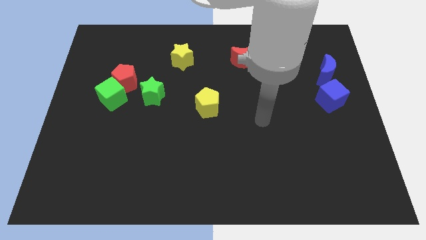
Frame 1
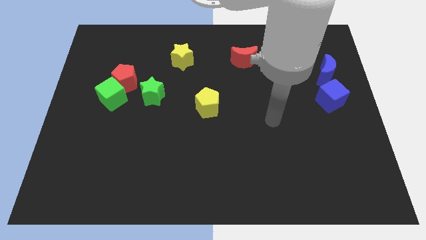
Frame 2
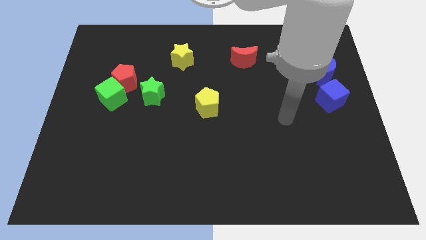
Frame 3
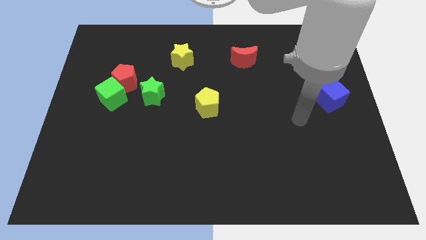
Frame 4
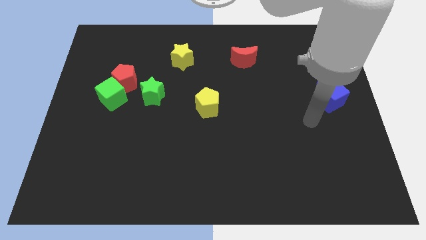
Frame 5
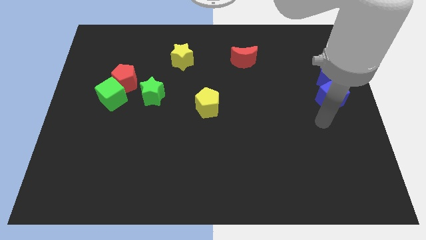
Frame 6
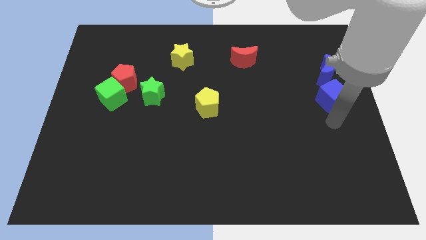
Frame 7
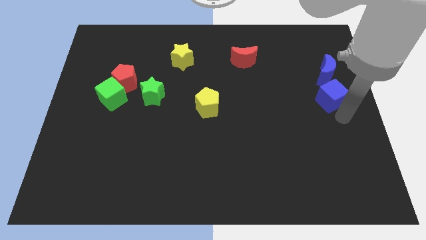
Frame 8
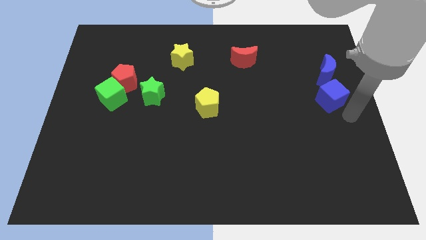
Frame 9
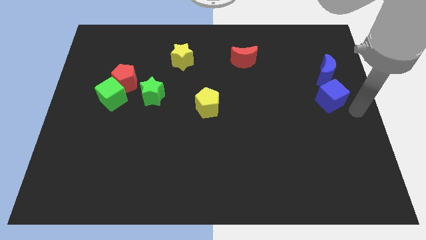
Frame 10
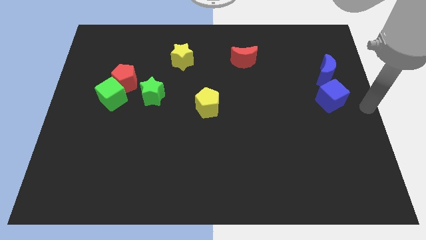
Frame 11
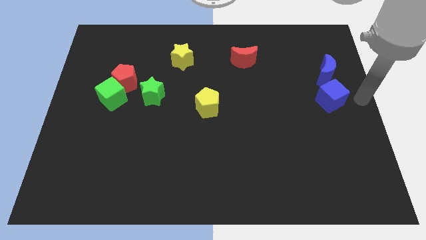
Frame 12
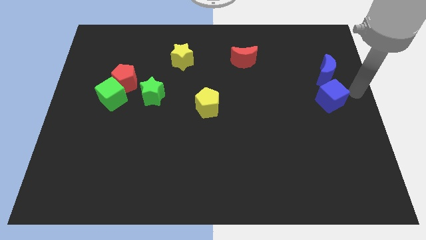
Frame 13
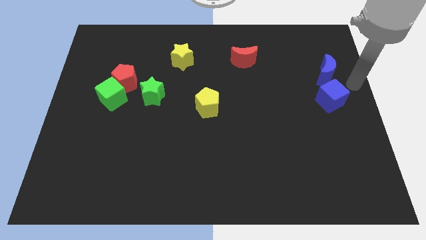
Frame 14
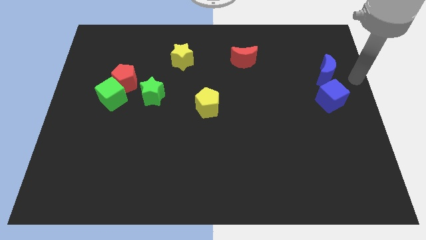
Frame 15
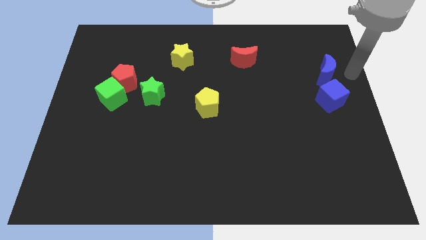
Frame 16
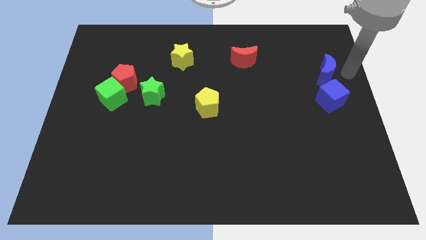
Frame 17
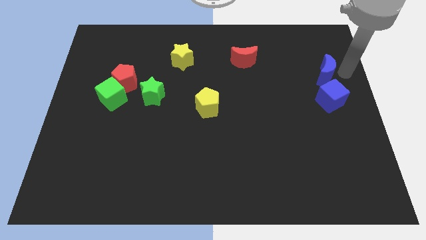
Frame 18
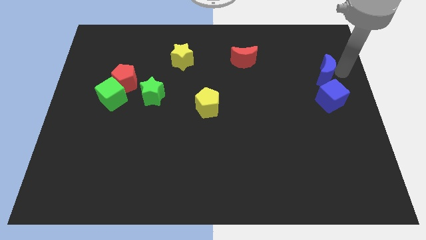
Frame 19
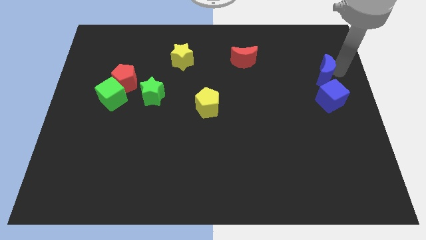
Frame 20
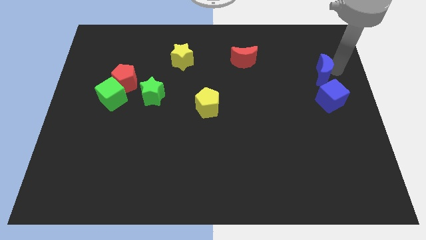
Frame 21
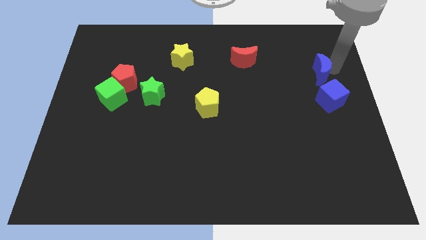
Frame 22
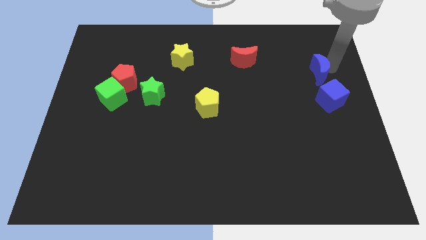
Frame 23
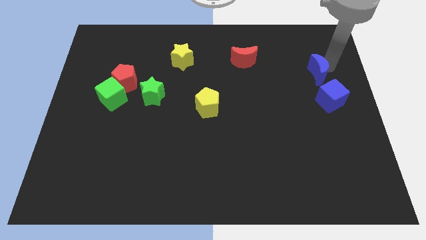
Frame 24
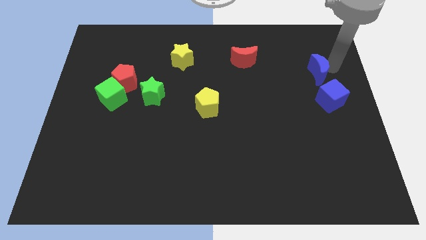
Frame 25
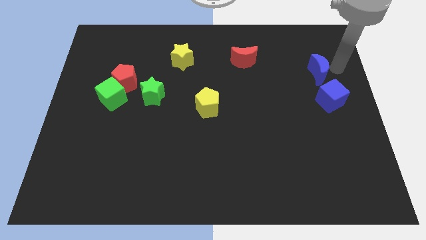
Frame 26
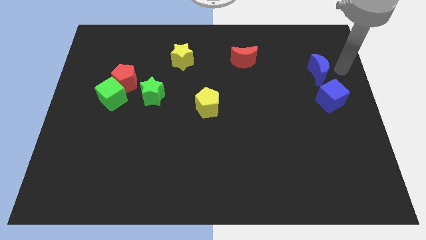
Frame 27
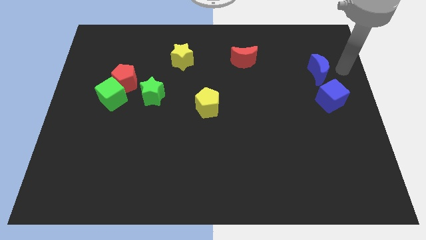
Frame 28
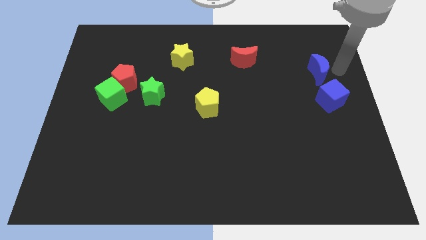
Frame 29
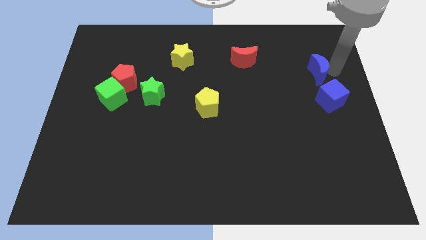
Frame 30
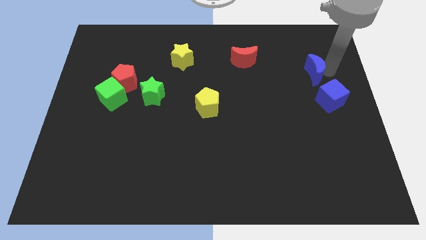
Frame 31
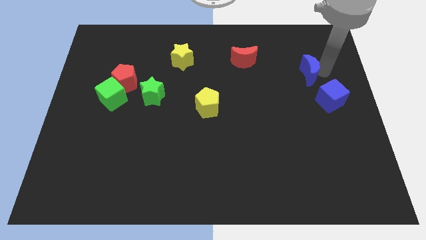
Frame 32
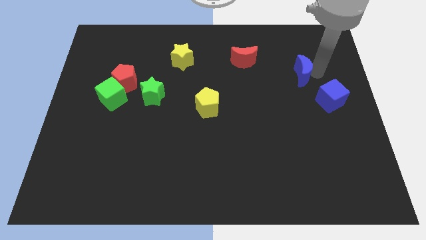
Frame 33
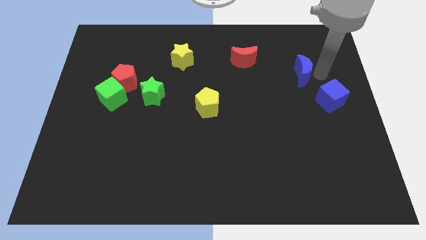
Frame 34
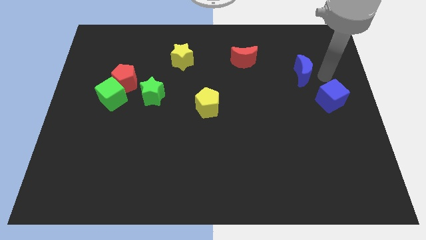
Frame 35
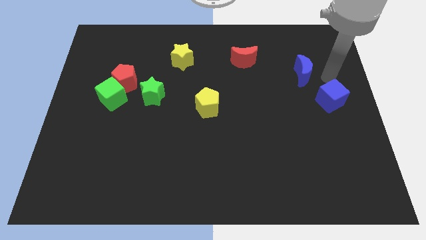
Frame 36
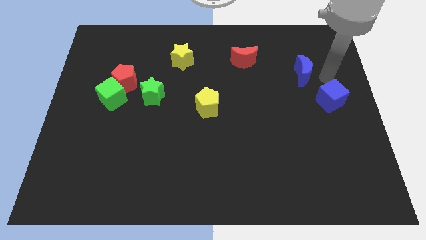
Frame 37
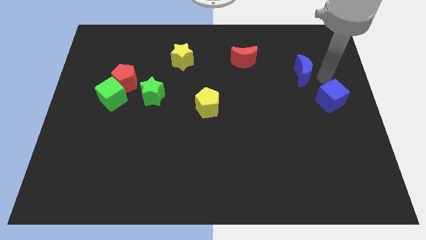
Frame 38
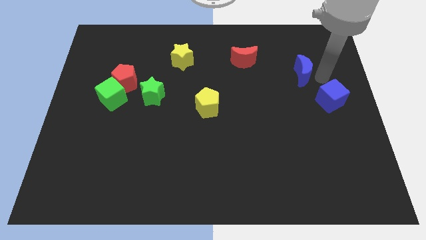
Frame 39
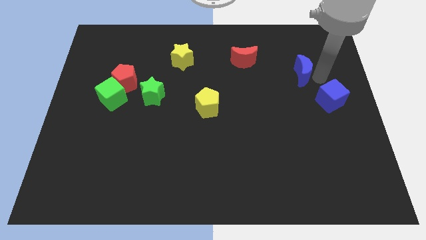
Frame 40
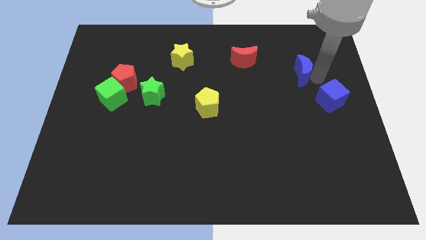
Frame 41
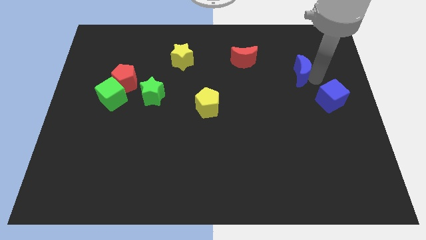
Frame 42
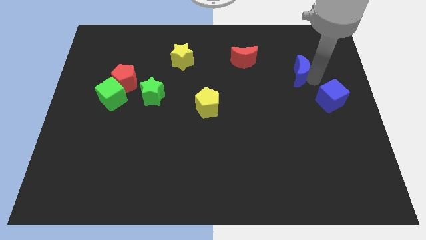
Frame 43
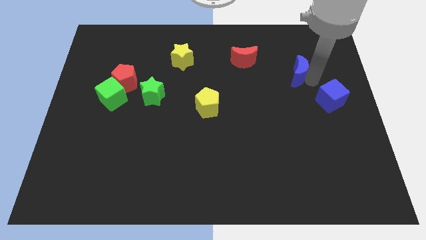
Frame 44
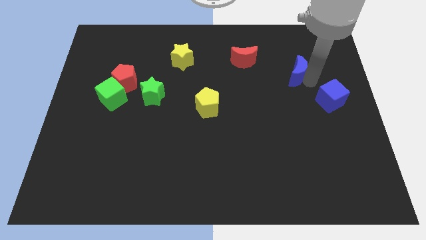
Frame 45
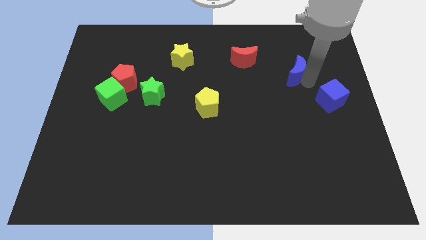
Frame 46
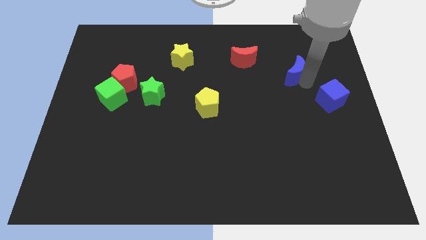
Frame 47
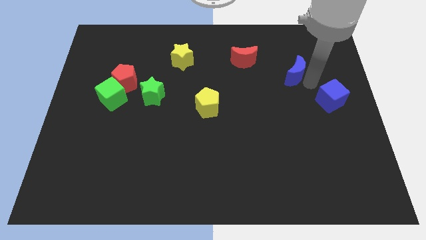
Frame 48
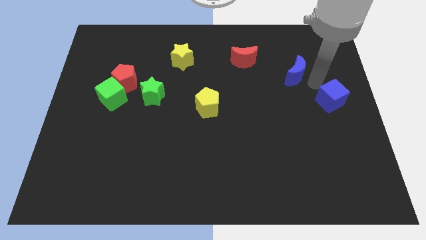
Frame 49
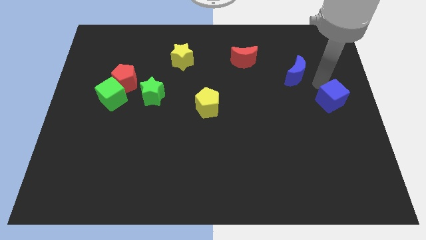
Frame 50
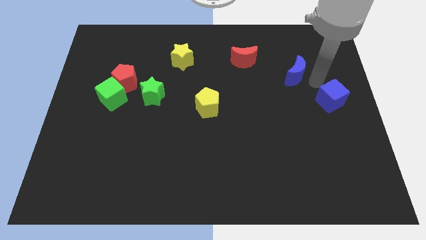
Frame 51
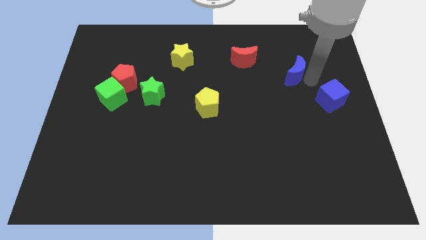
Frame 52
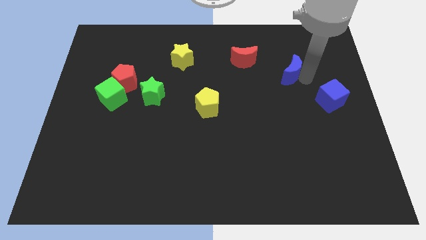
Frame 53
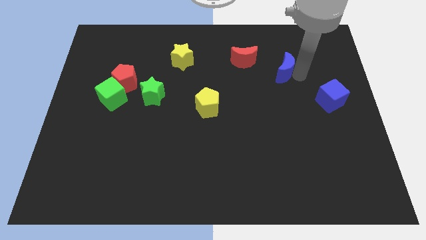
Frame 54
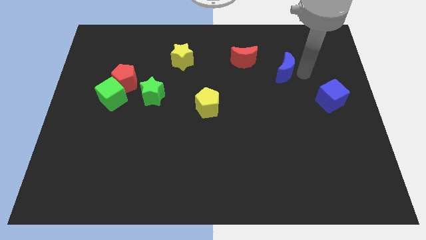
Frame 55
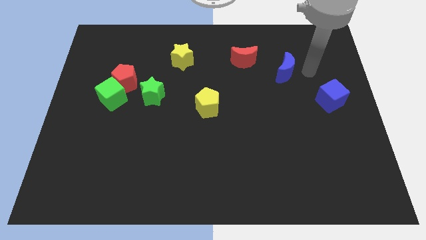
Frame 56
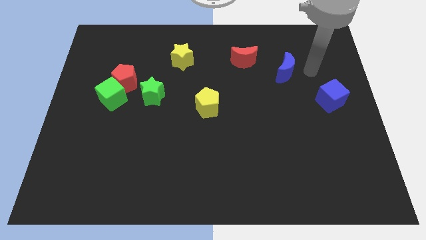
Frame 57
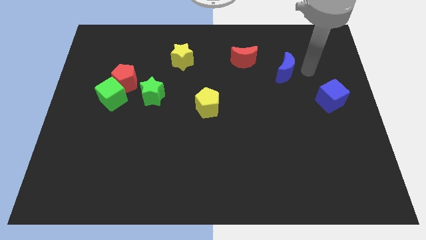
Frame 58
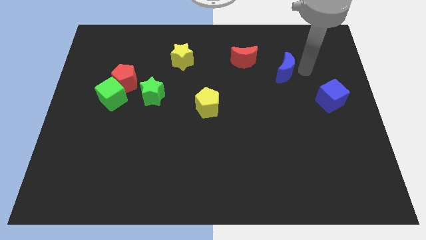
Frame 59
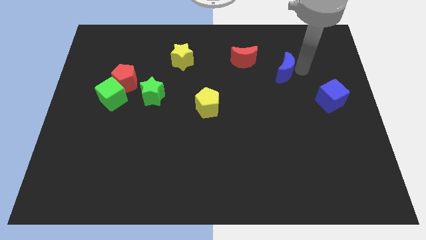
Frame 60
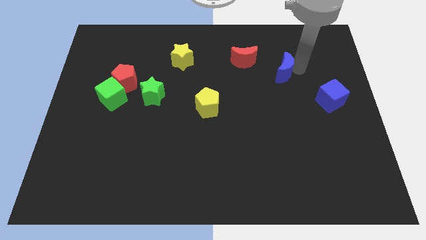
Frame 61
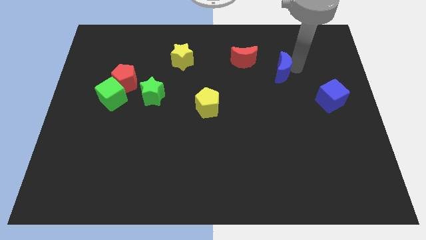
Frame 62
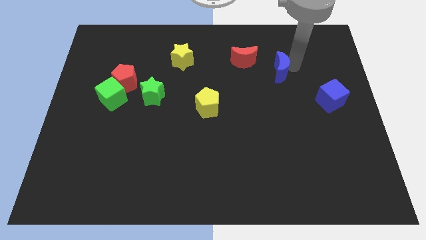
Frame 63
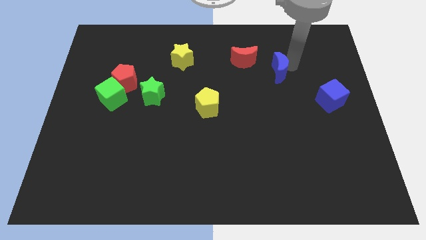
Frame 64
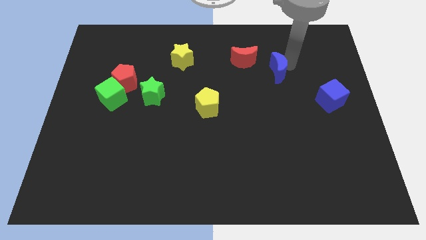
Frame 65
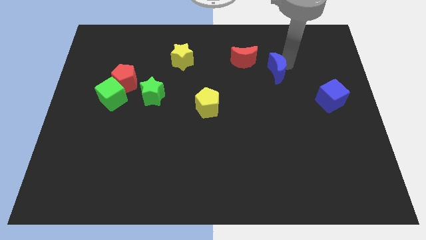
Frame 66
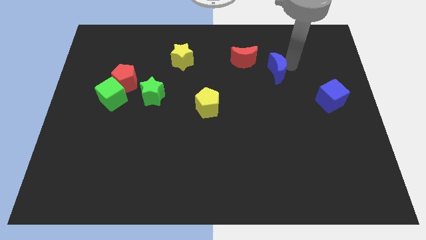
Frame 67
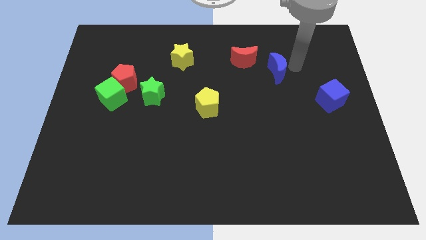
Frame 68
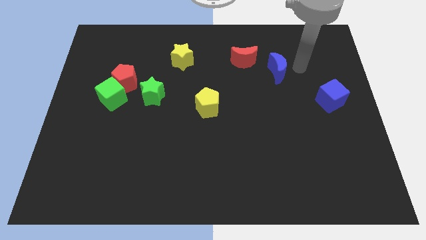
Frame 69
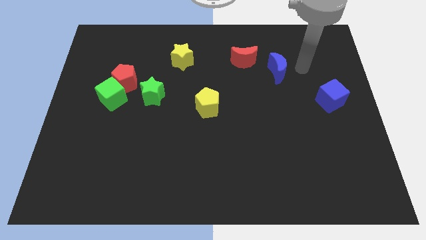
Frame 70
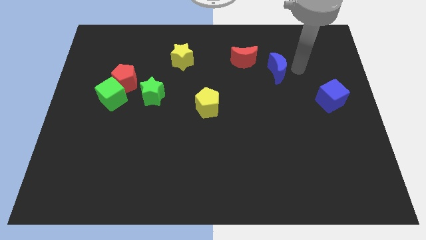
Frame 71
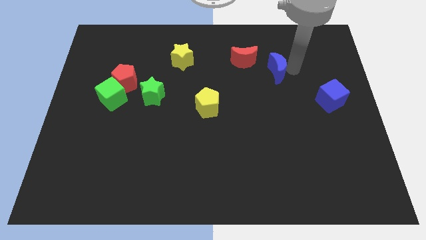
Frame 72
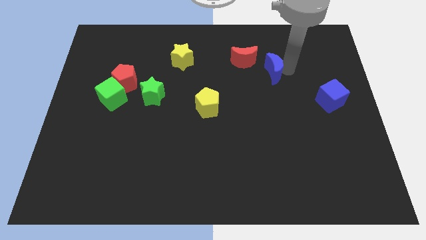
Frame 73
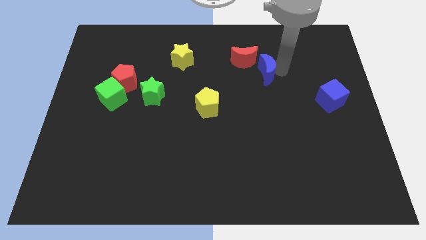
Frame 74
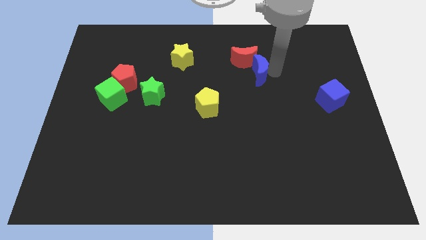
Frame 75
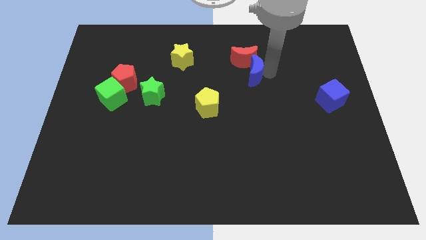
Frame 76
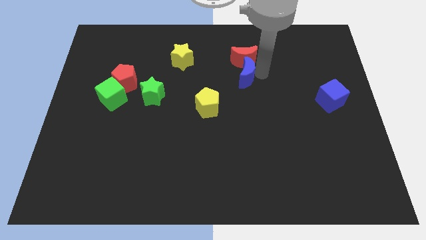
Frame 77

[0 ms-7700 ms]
slide the blue moon left
